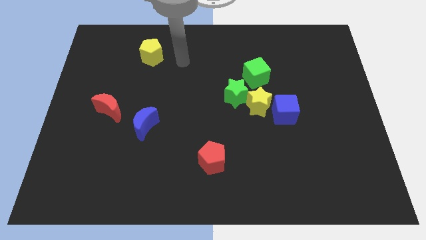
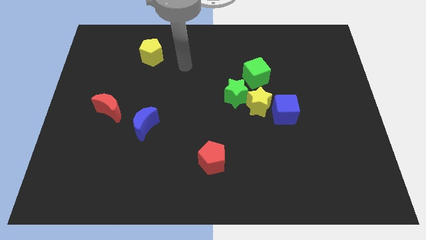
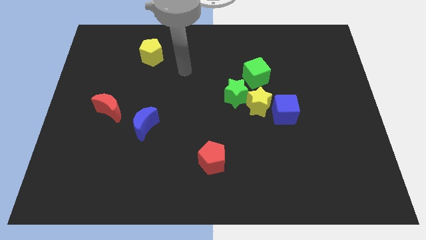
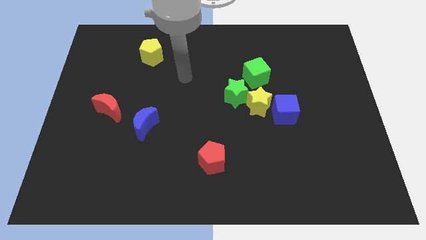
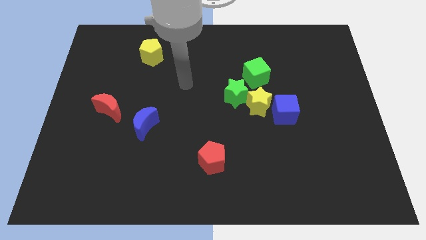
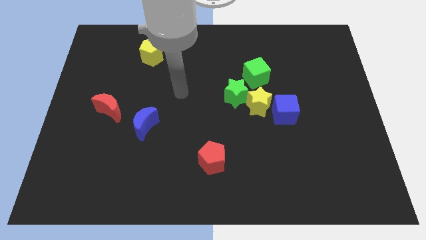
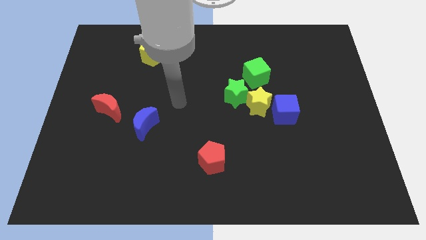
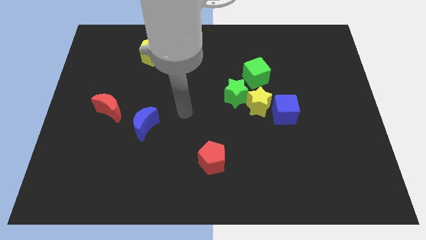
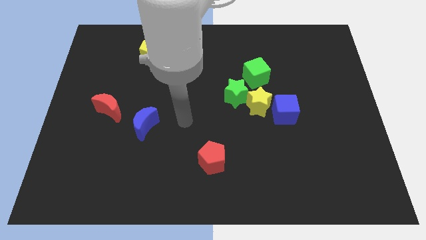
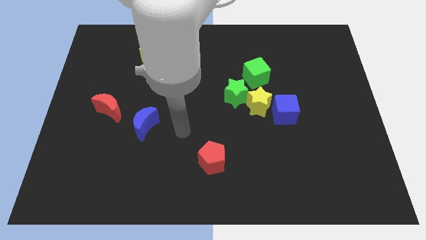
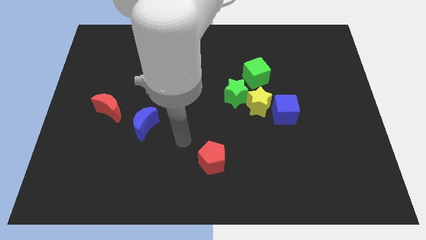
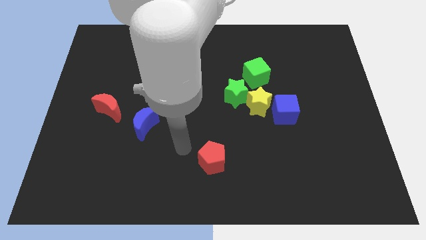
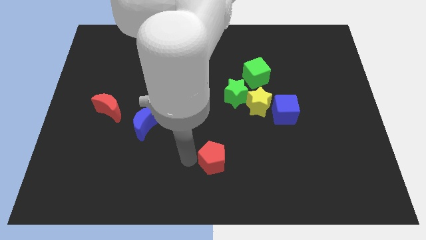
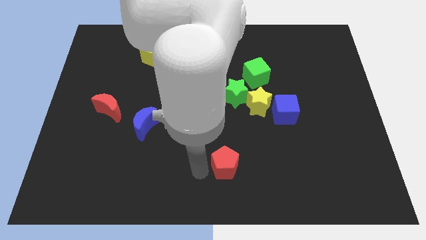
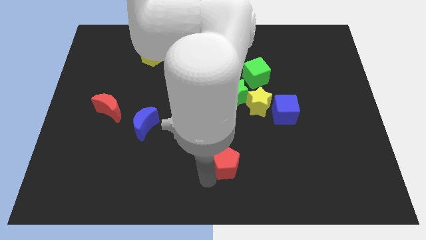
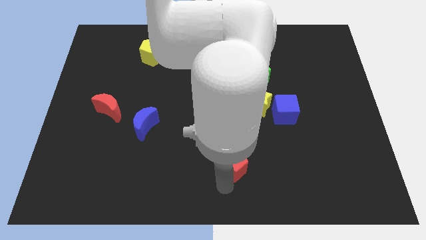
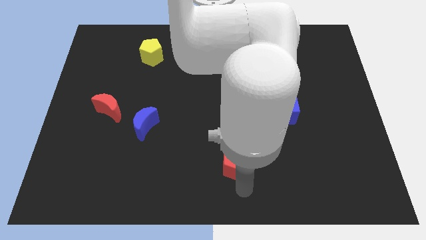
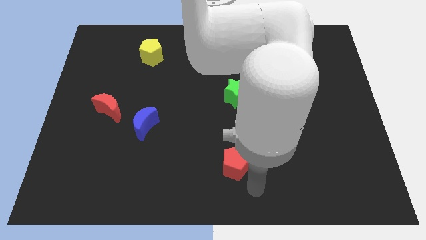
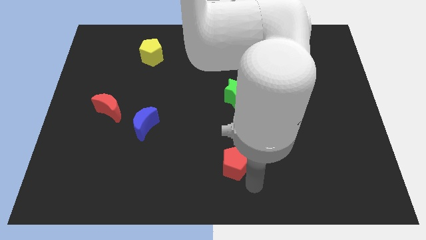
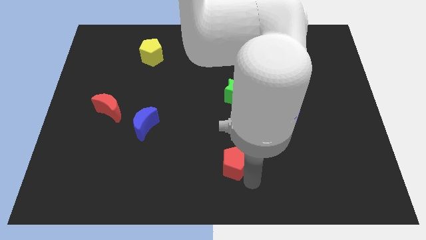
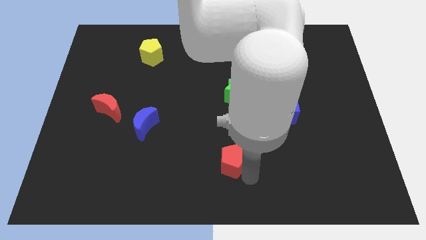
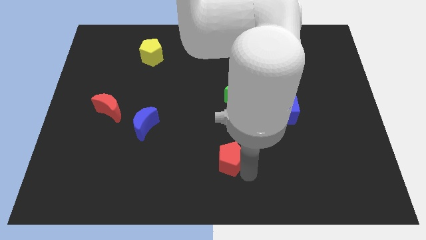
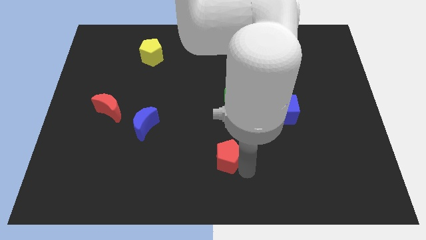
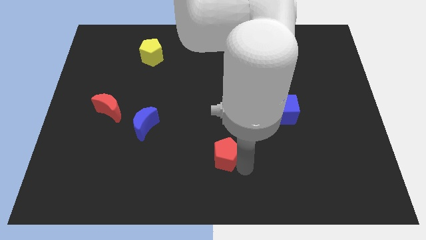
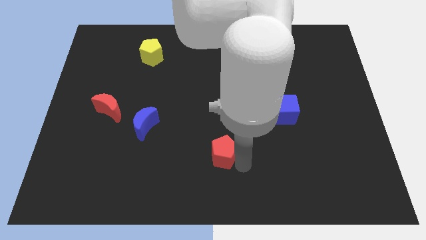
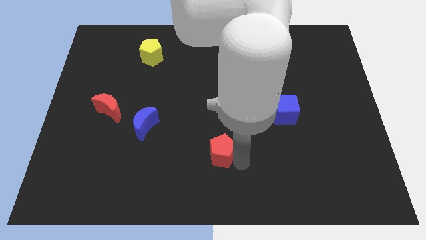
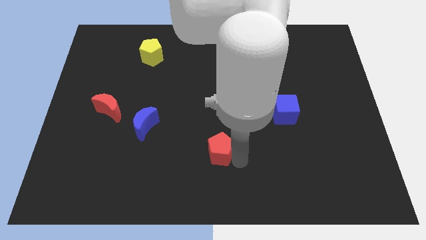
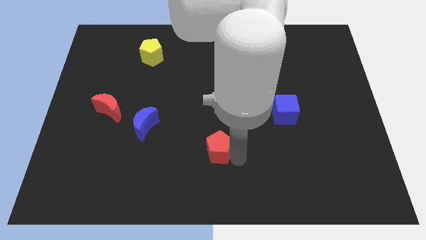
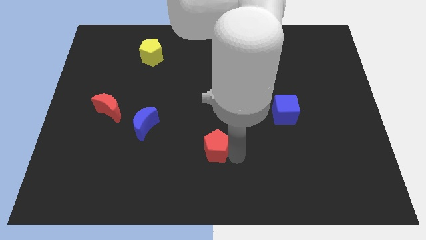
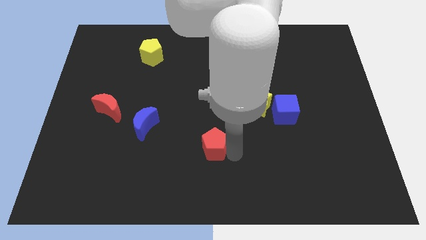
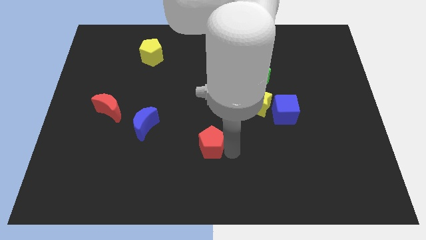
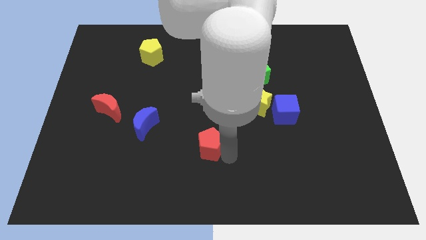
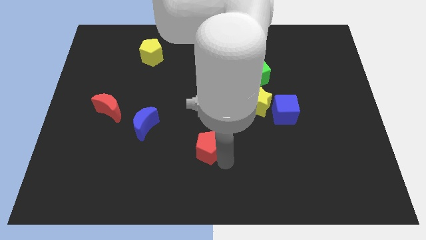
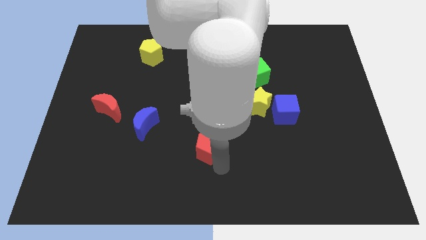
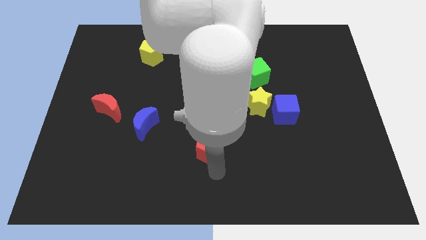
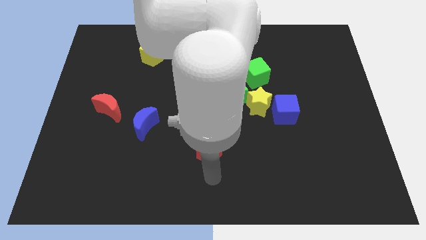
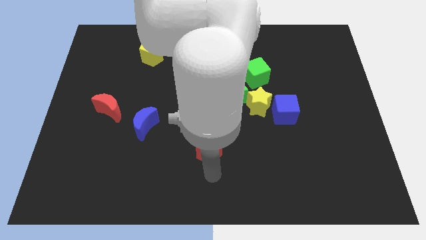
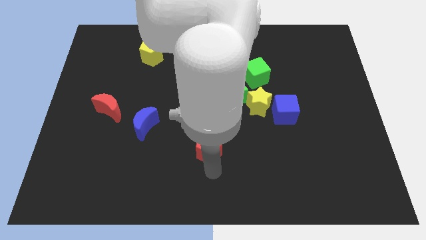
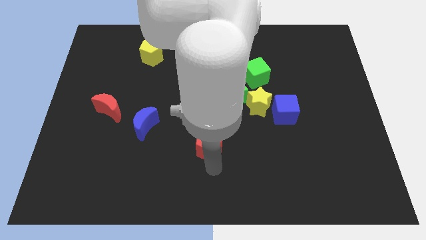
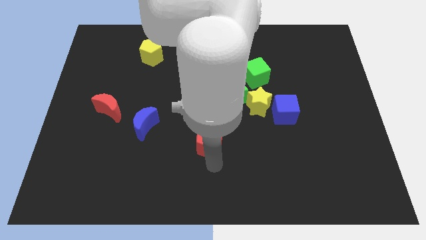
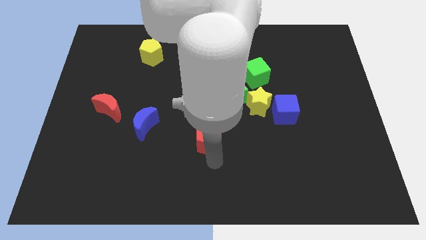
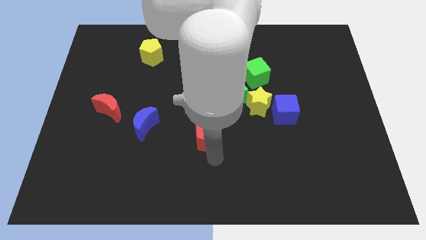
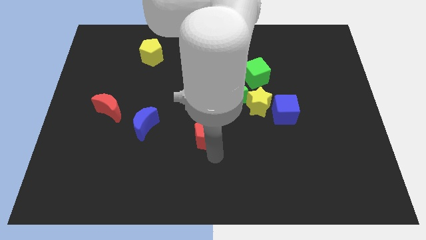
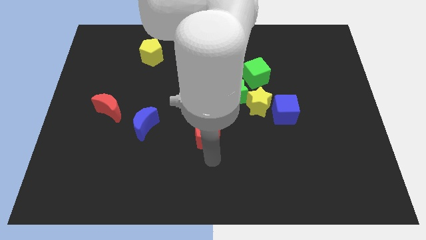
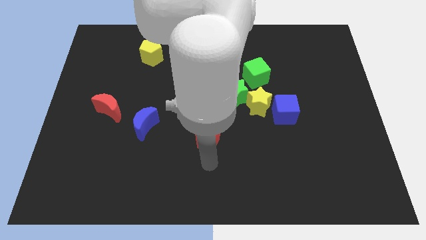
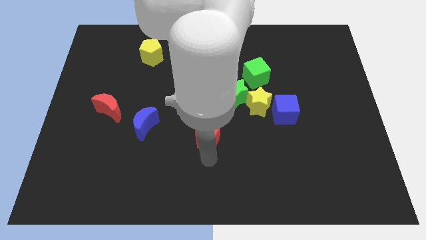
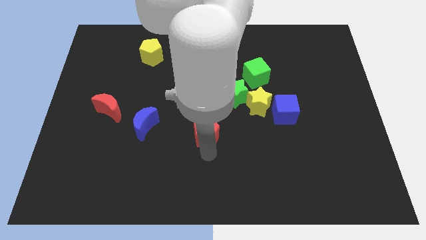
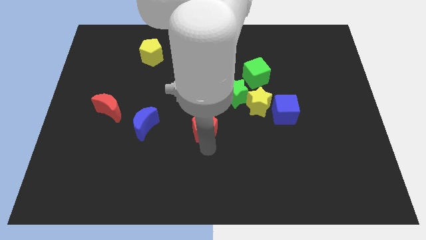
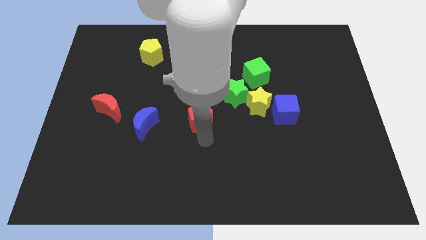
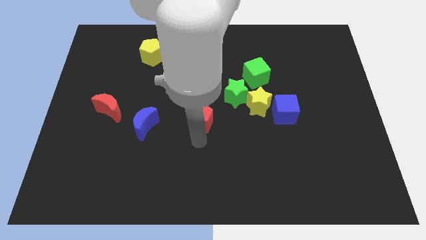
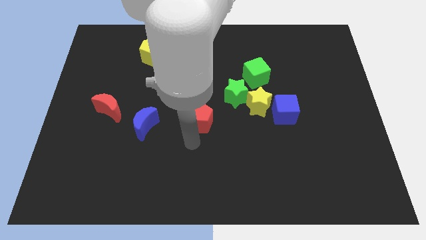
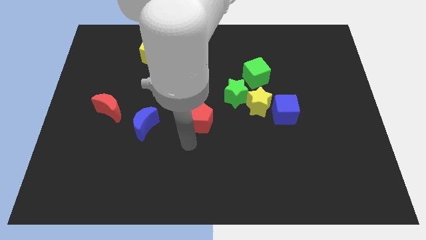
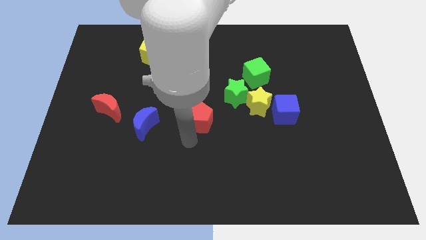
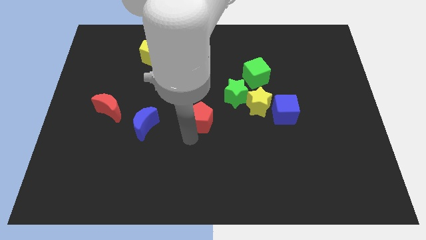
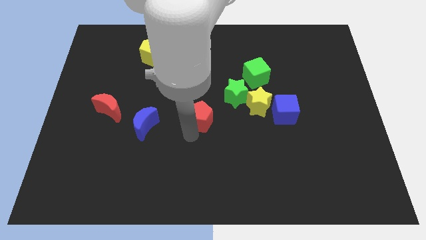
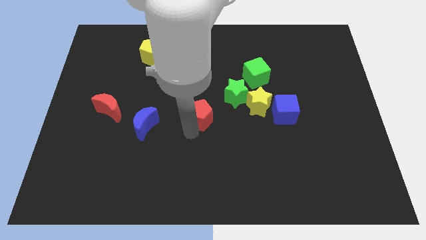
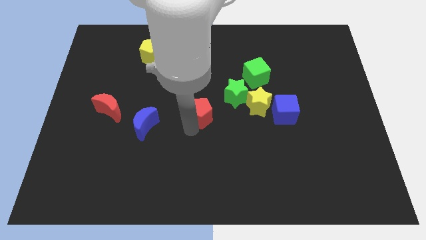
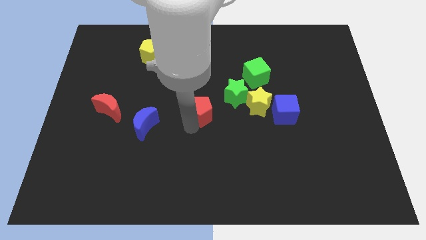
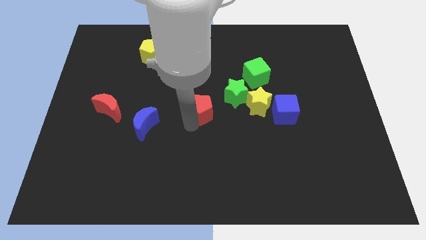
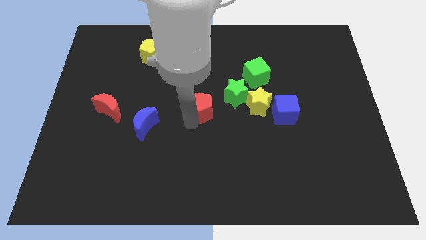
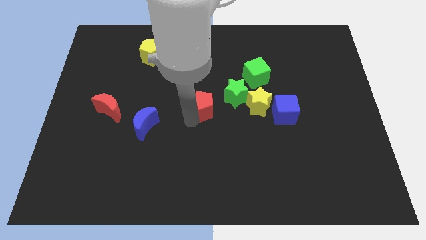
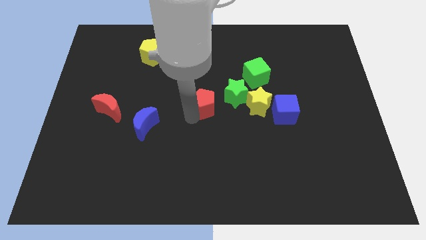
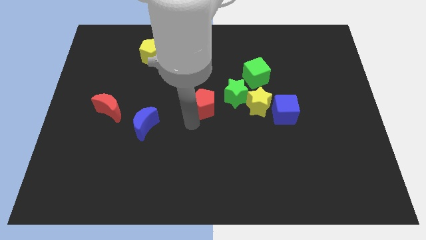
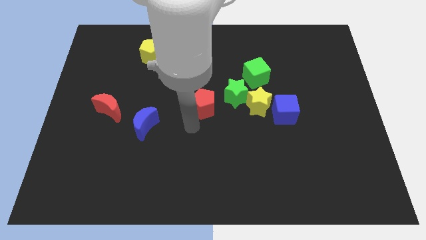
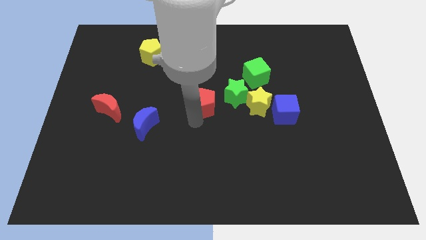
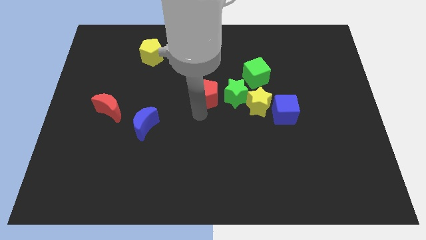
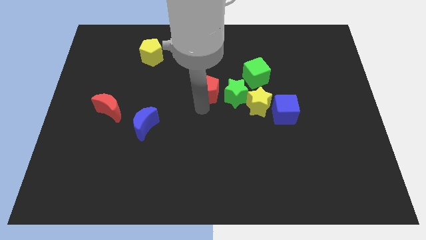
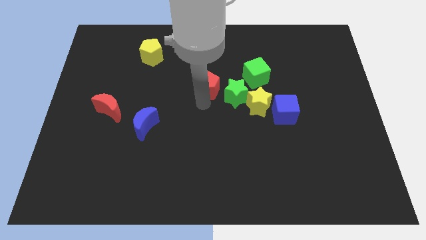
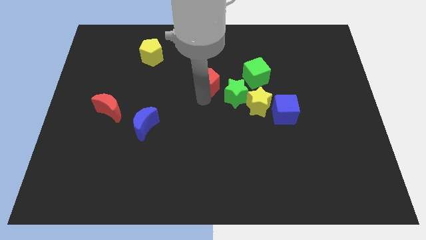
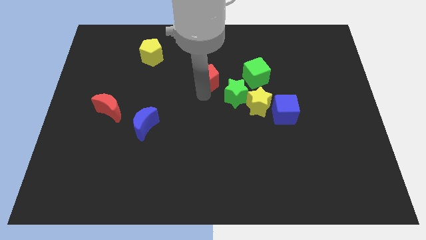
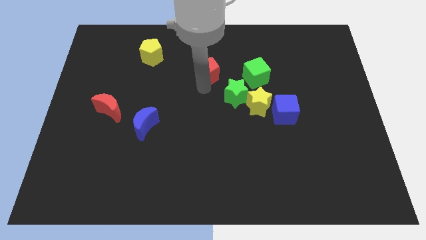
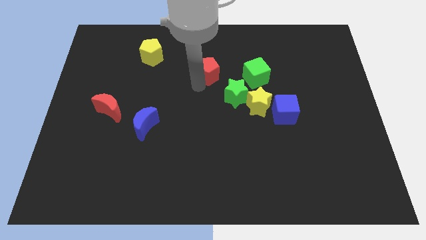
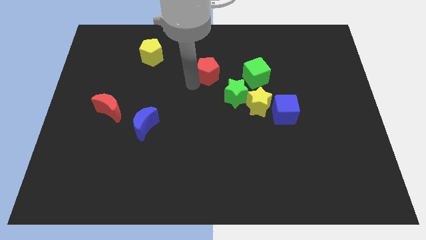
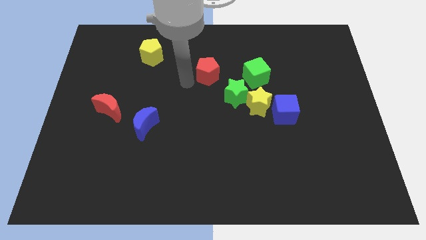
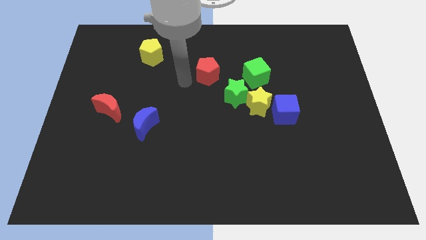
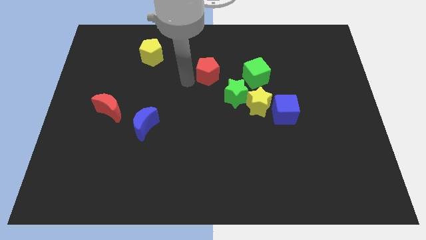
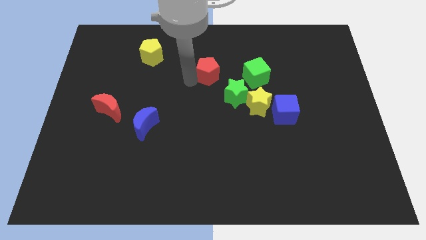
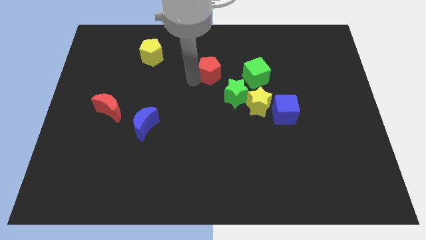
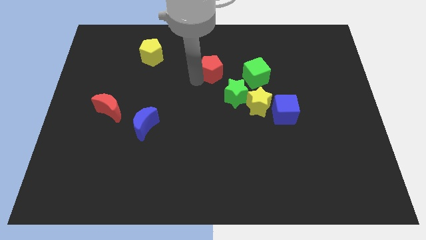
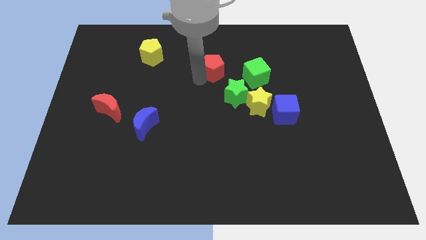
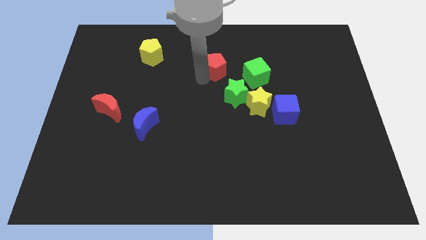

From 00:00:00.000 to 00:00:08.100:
slide the red pentagon to the top of the green star
